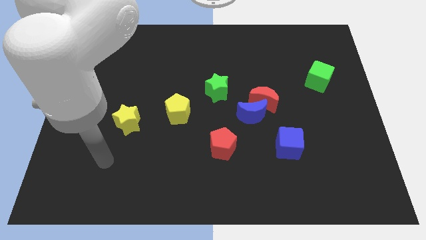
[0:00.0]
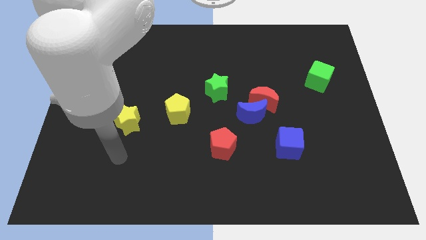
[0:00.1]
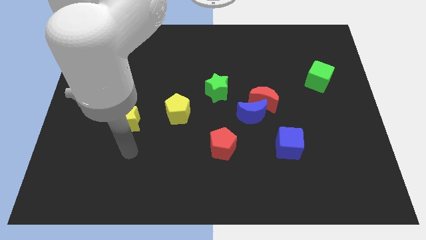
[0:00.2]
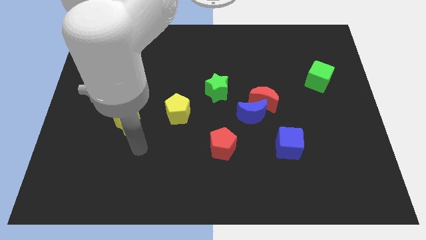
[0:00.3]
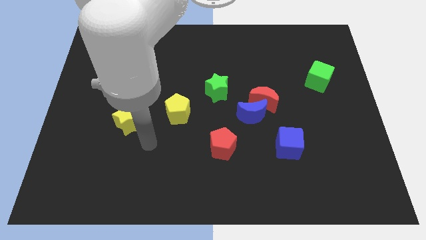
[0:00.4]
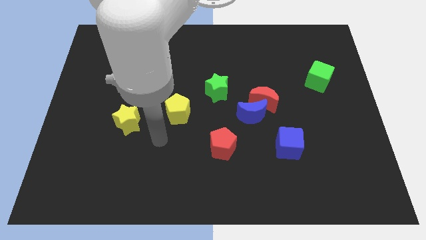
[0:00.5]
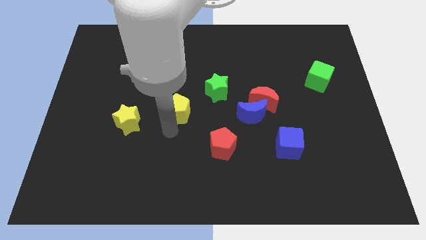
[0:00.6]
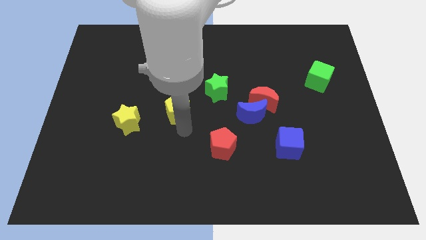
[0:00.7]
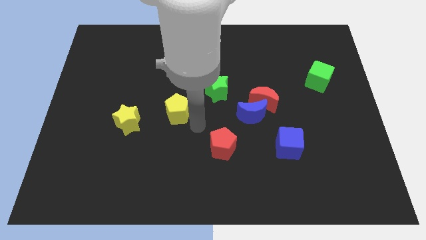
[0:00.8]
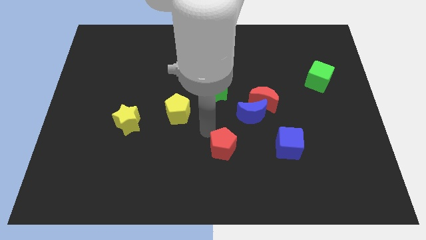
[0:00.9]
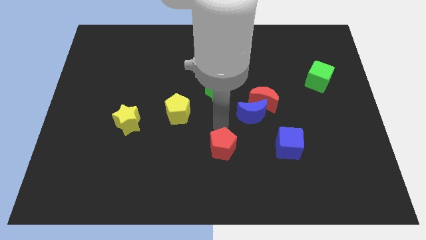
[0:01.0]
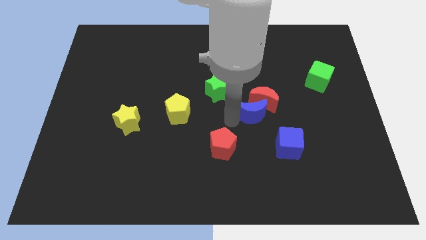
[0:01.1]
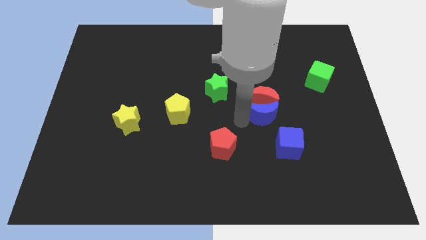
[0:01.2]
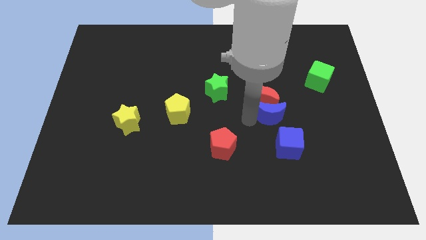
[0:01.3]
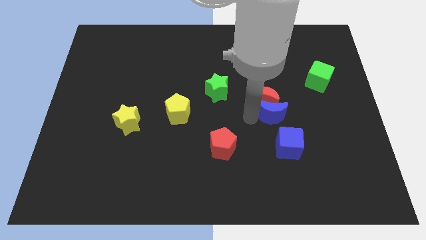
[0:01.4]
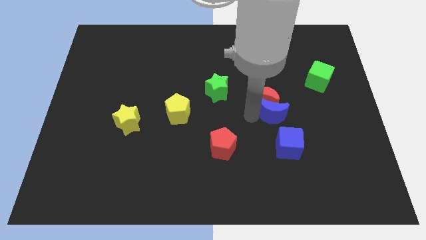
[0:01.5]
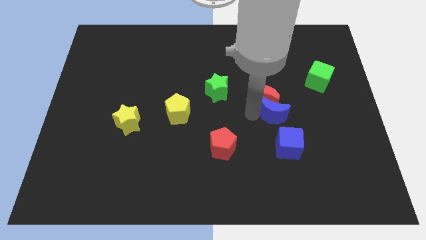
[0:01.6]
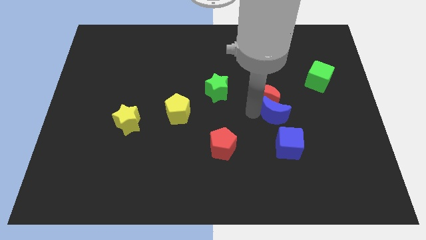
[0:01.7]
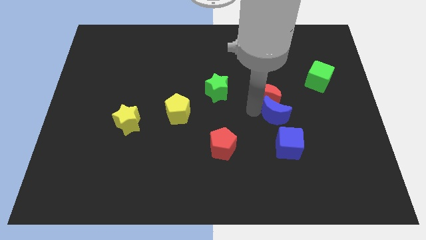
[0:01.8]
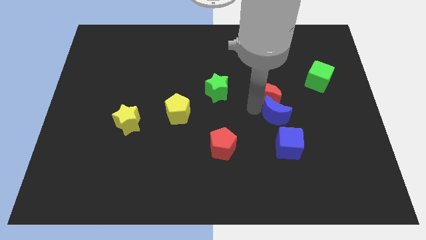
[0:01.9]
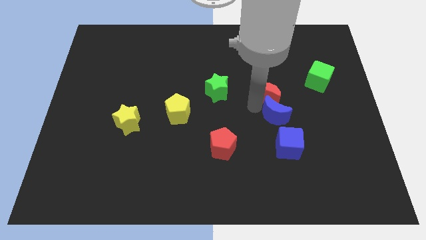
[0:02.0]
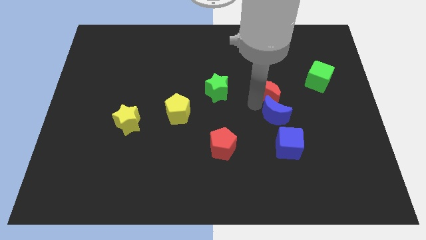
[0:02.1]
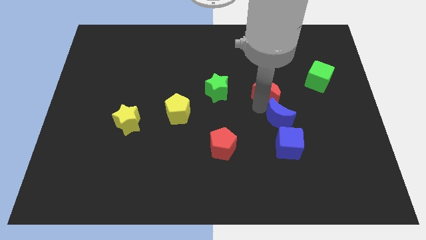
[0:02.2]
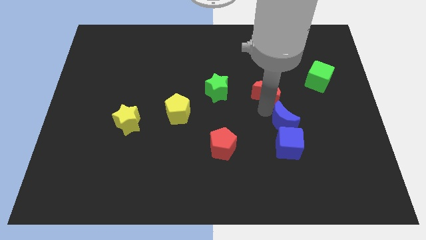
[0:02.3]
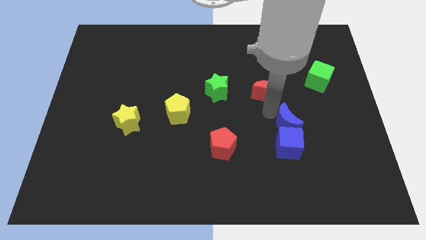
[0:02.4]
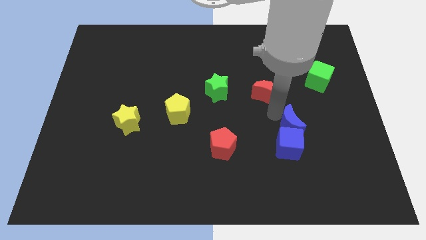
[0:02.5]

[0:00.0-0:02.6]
separate the red moon from the blue moon

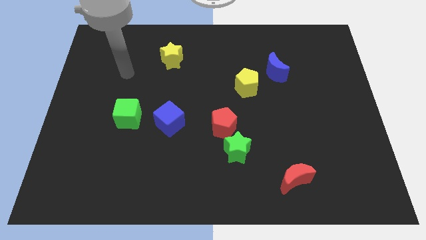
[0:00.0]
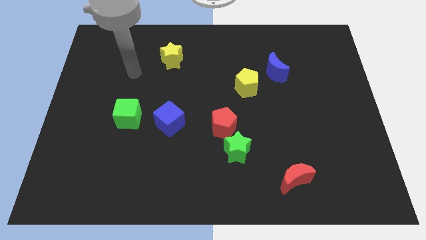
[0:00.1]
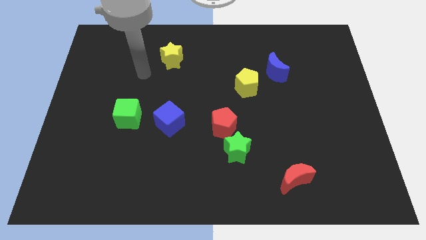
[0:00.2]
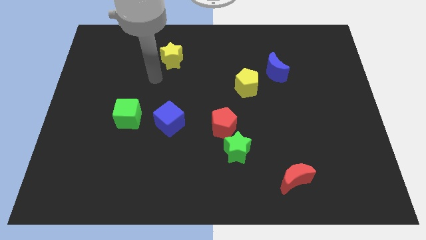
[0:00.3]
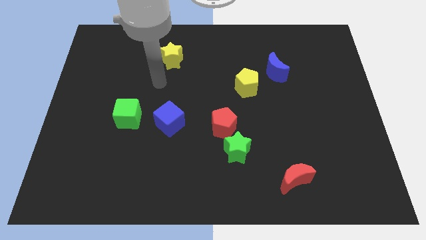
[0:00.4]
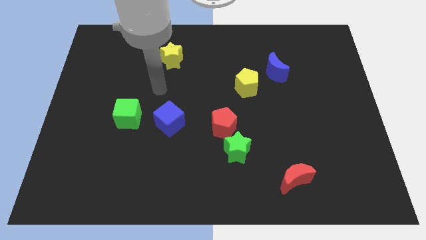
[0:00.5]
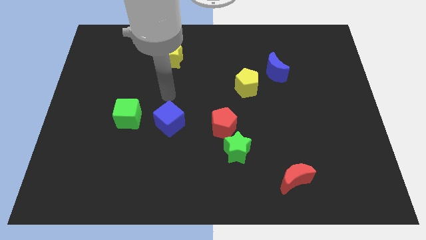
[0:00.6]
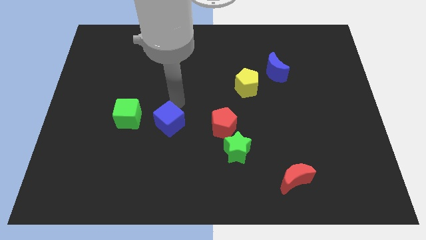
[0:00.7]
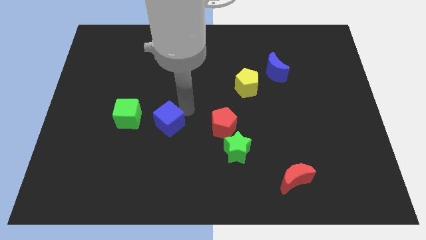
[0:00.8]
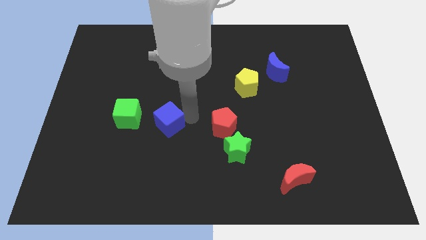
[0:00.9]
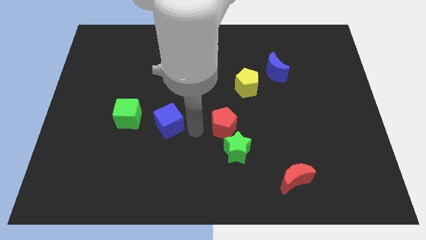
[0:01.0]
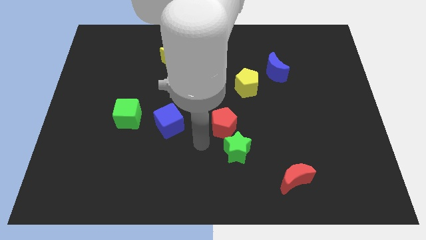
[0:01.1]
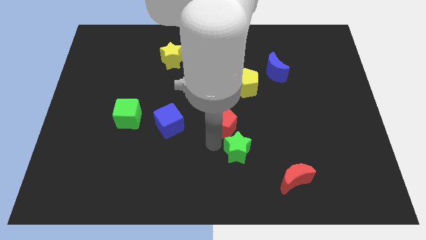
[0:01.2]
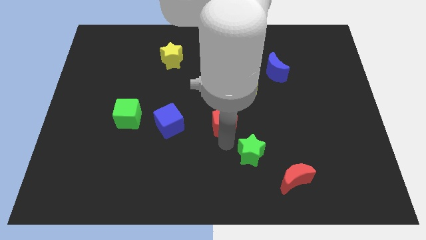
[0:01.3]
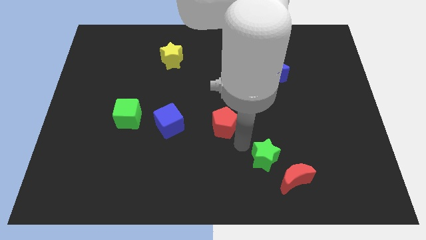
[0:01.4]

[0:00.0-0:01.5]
move the red pentagon away from the green star

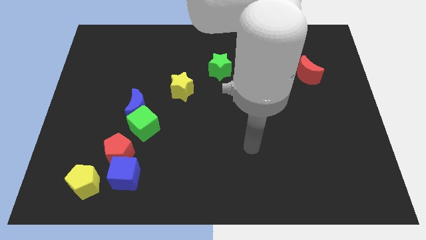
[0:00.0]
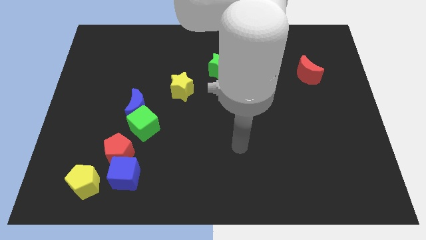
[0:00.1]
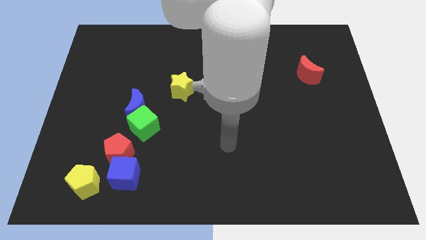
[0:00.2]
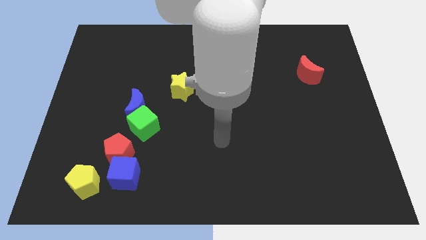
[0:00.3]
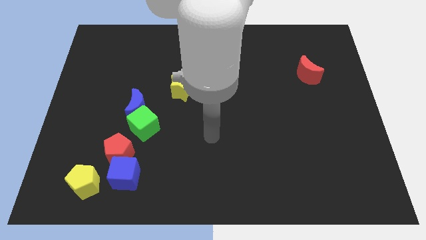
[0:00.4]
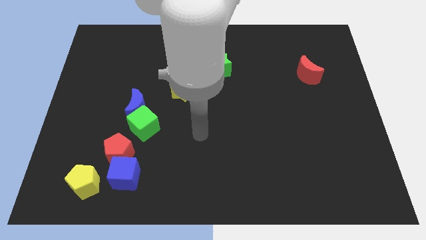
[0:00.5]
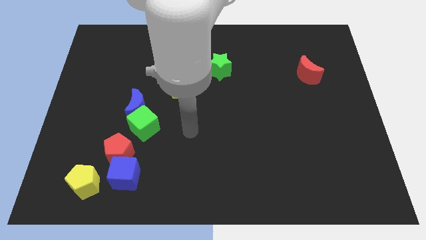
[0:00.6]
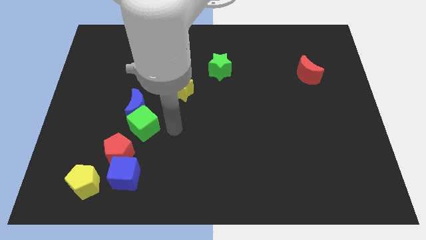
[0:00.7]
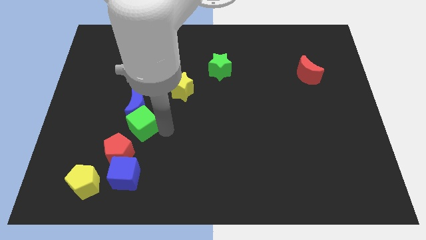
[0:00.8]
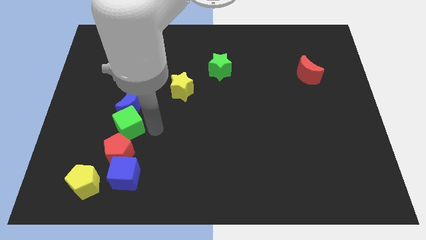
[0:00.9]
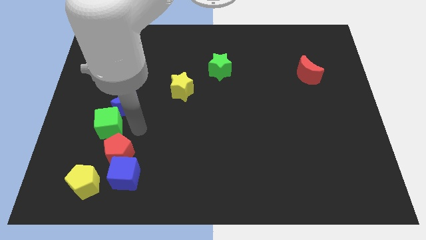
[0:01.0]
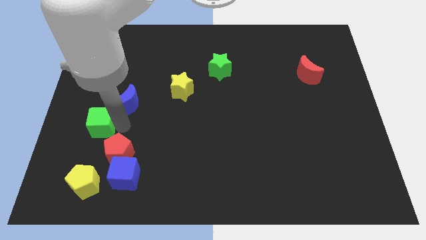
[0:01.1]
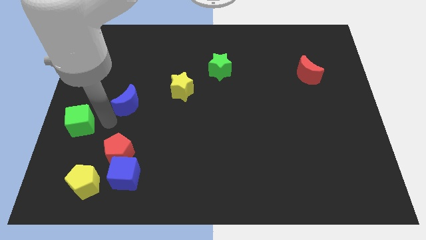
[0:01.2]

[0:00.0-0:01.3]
pull the blue moon apart from the green cube

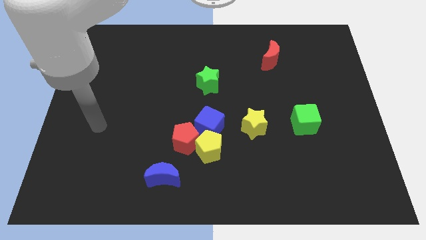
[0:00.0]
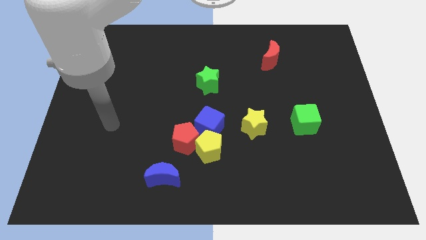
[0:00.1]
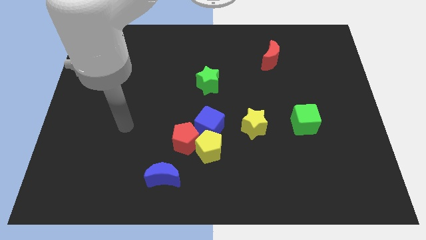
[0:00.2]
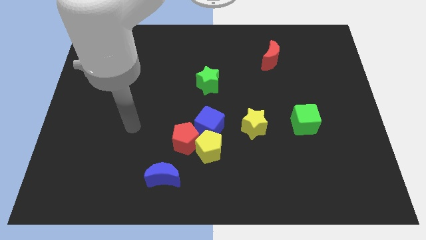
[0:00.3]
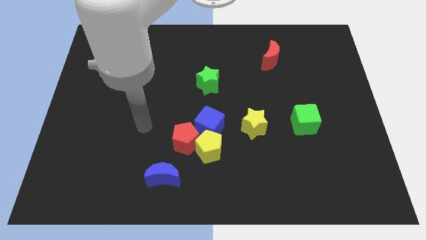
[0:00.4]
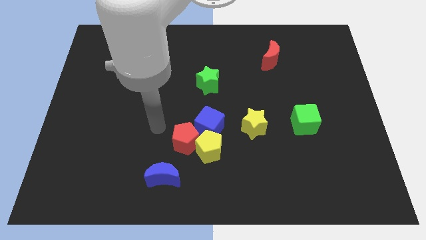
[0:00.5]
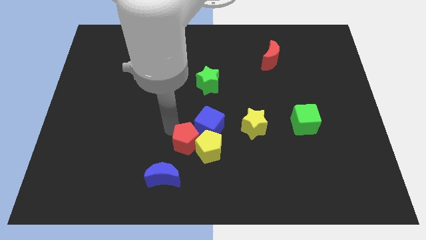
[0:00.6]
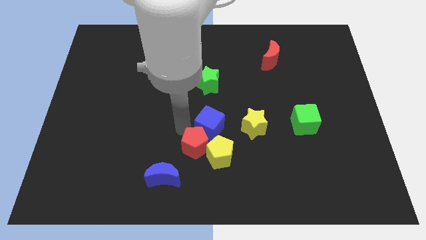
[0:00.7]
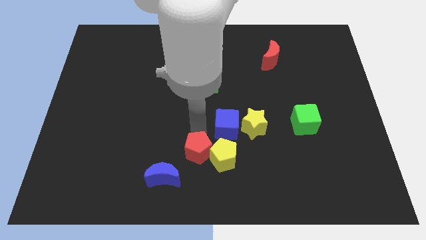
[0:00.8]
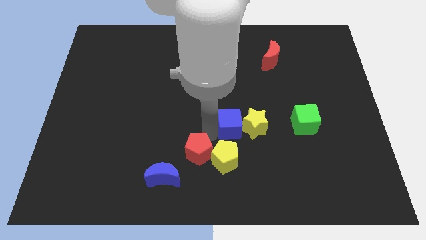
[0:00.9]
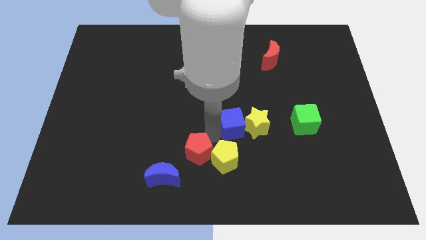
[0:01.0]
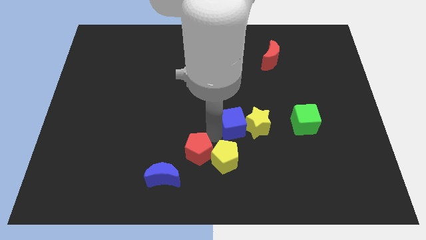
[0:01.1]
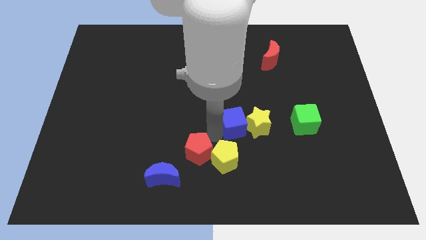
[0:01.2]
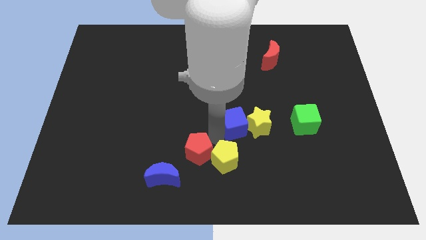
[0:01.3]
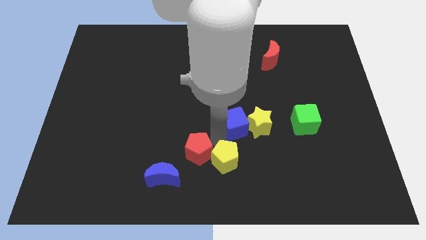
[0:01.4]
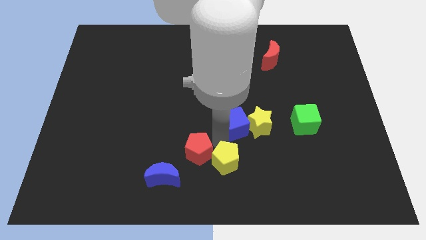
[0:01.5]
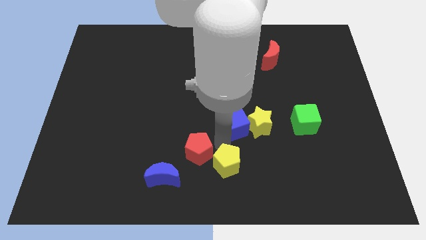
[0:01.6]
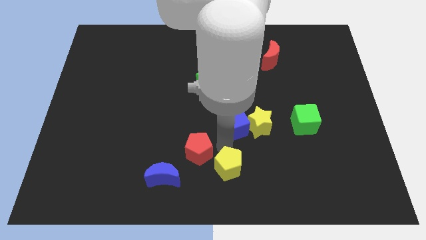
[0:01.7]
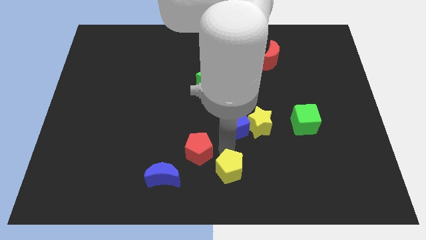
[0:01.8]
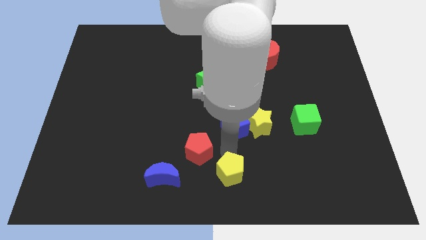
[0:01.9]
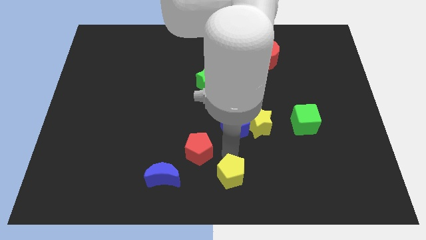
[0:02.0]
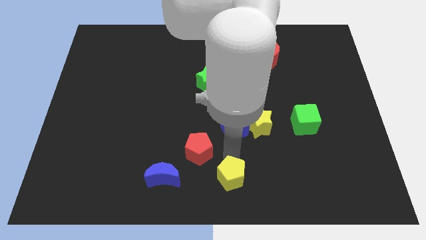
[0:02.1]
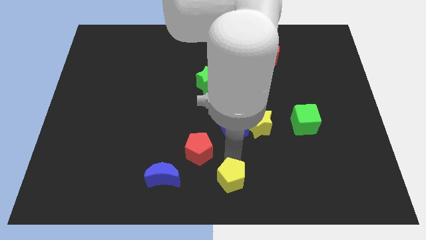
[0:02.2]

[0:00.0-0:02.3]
separate the yellow pentagon from the red pentagon and blue cube

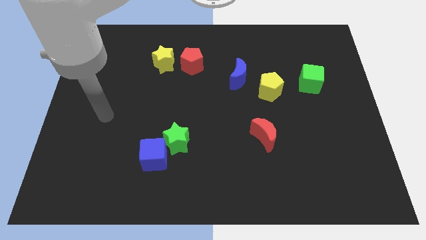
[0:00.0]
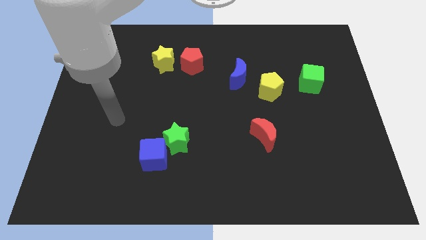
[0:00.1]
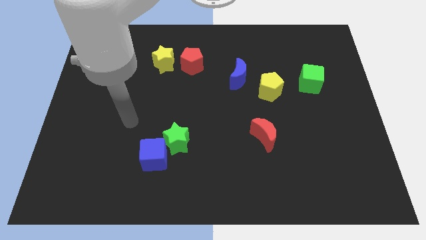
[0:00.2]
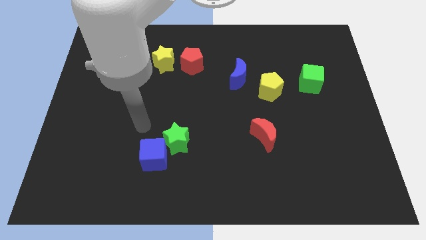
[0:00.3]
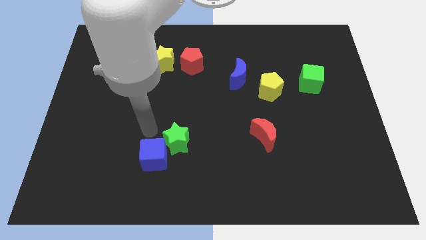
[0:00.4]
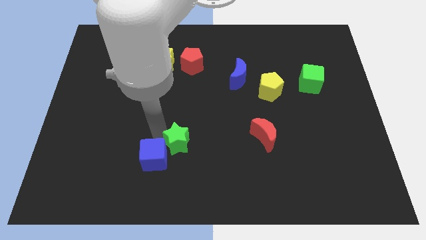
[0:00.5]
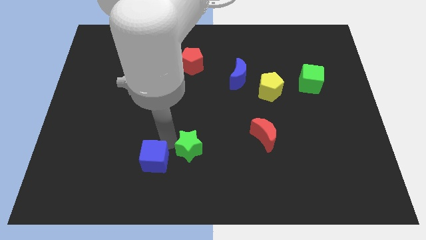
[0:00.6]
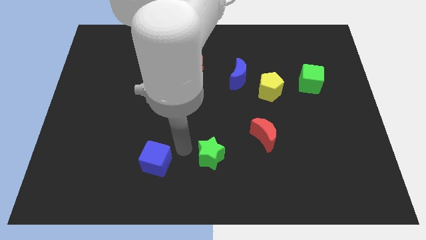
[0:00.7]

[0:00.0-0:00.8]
pull the blue cube apart from the green star

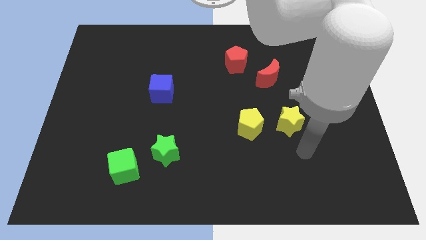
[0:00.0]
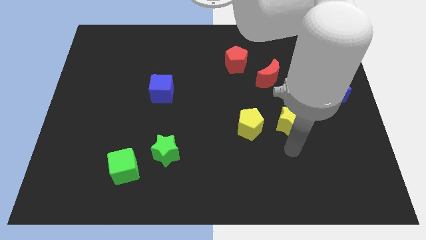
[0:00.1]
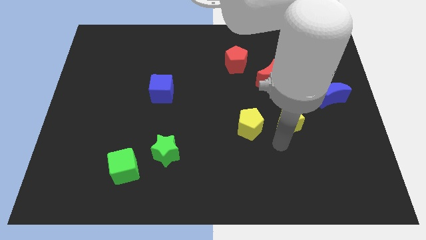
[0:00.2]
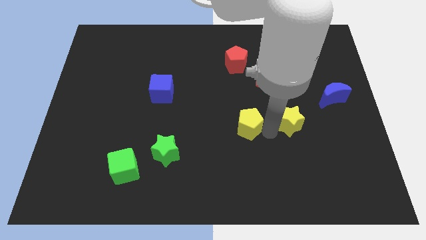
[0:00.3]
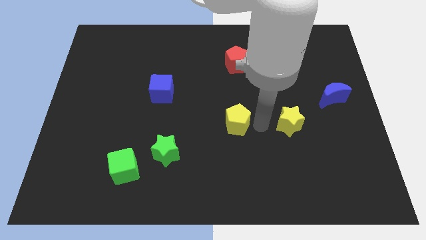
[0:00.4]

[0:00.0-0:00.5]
separate the yellow star from the yellow pentagon

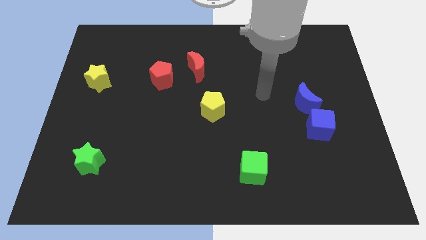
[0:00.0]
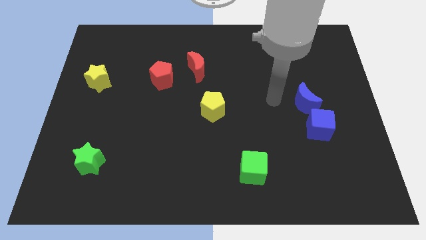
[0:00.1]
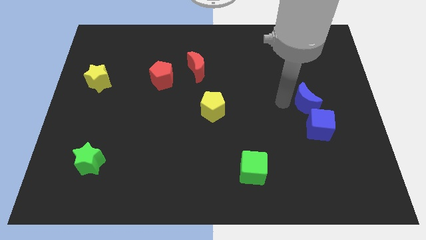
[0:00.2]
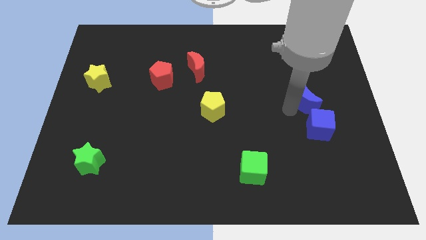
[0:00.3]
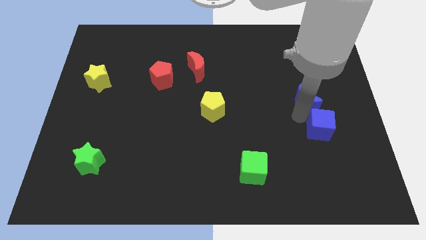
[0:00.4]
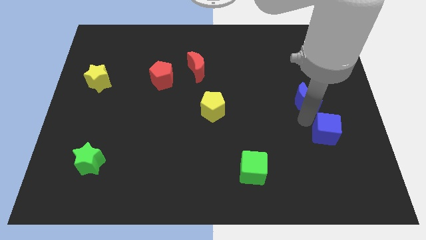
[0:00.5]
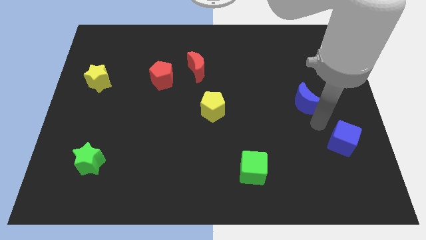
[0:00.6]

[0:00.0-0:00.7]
separate the blue moon from the blue cube
